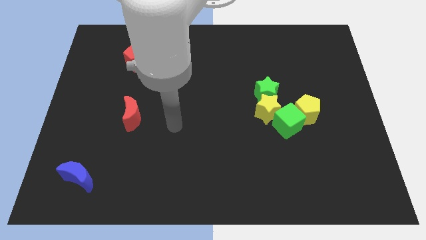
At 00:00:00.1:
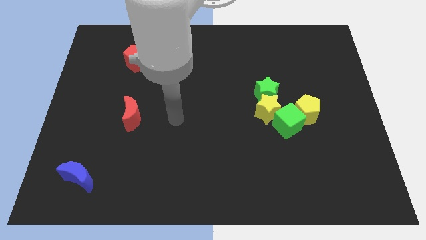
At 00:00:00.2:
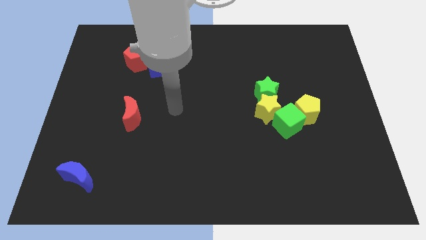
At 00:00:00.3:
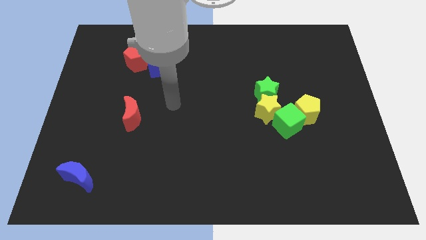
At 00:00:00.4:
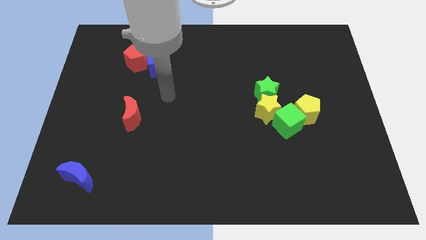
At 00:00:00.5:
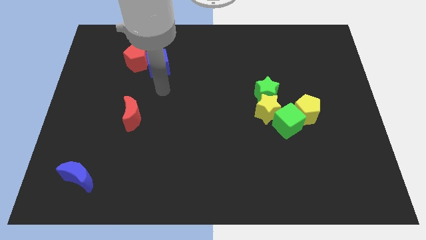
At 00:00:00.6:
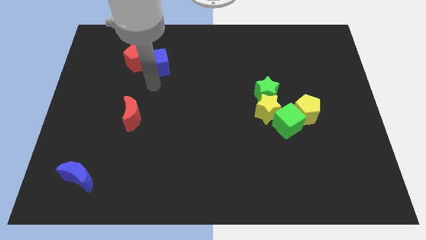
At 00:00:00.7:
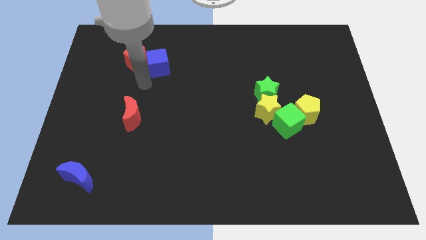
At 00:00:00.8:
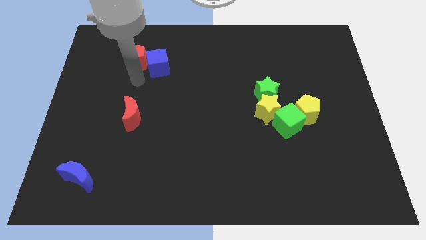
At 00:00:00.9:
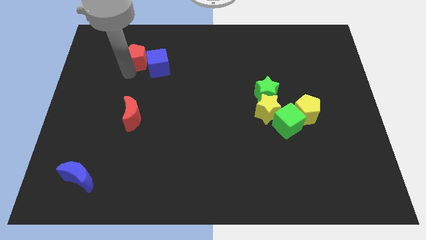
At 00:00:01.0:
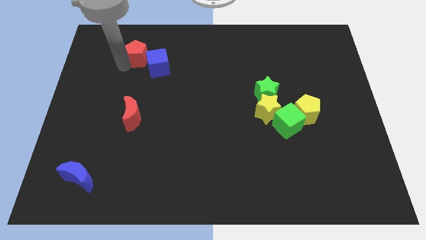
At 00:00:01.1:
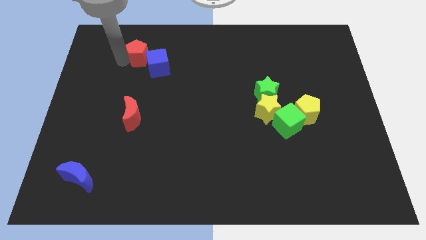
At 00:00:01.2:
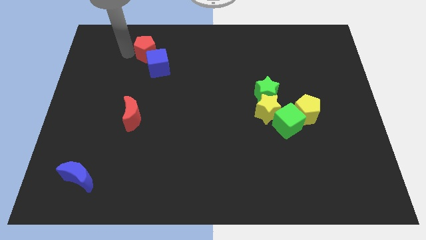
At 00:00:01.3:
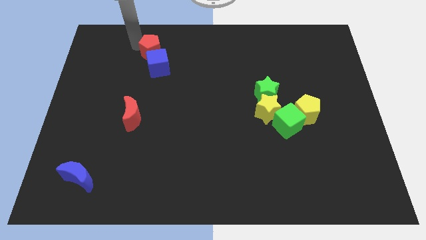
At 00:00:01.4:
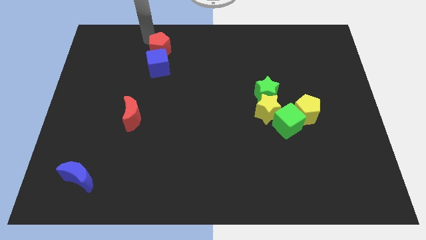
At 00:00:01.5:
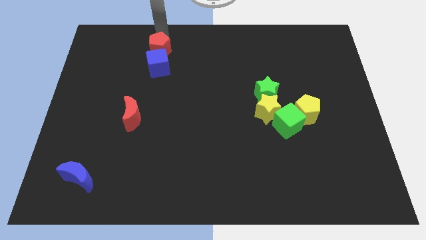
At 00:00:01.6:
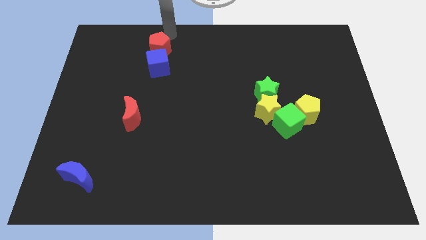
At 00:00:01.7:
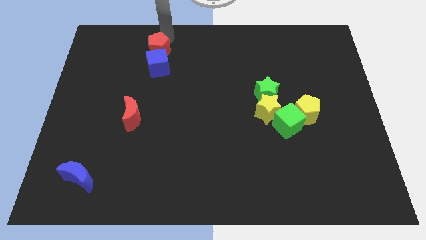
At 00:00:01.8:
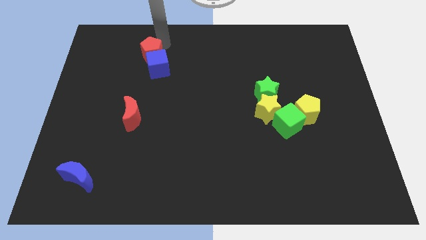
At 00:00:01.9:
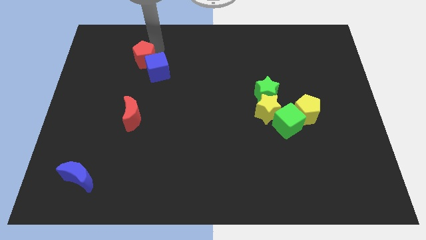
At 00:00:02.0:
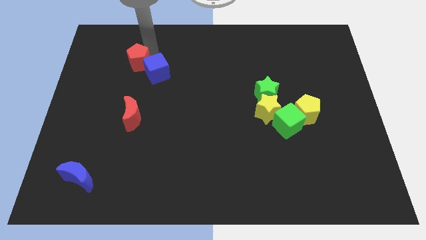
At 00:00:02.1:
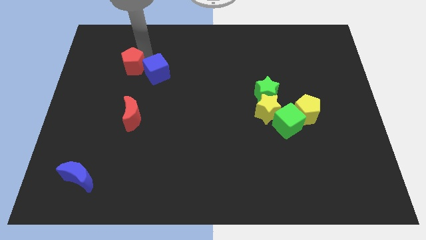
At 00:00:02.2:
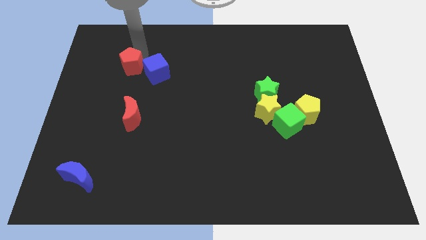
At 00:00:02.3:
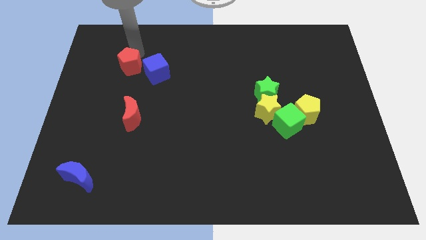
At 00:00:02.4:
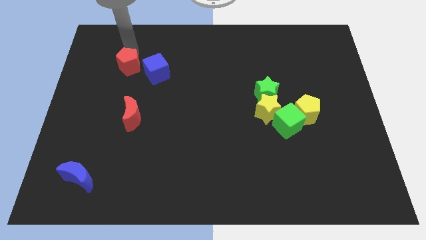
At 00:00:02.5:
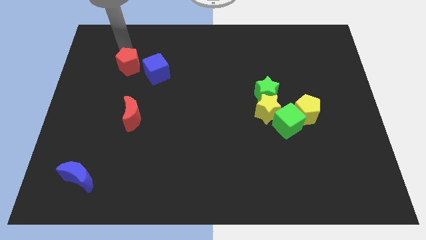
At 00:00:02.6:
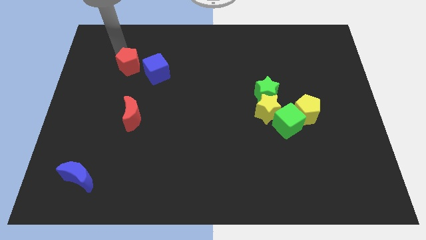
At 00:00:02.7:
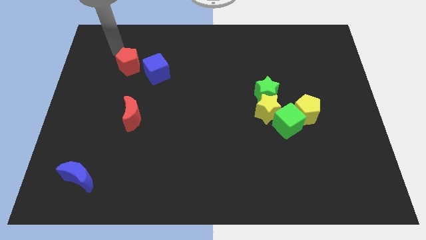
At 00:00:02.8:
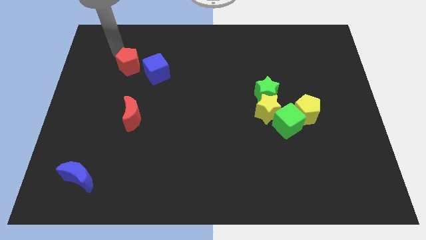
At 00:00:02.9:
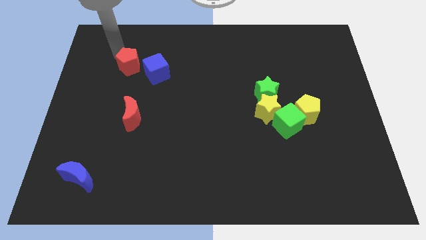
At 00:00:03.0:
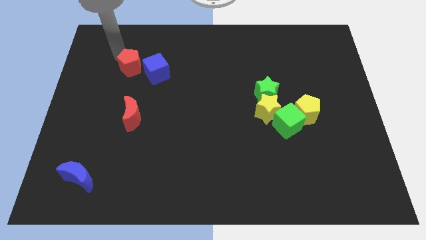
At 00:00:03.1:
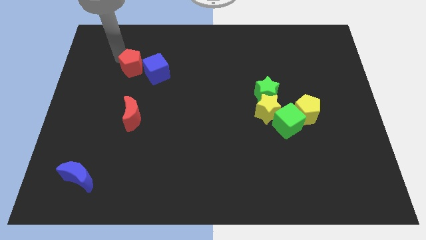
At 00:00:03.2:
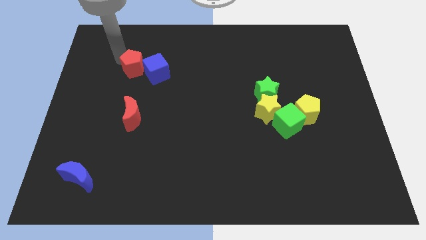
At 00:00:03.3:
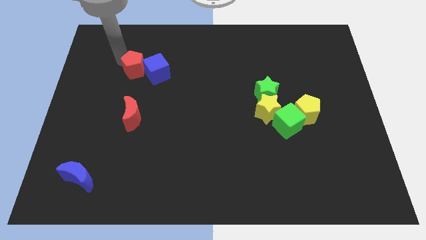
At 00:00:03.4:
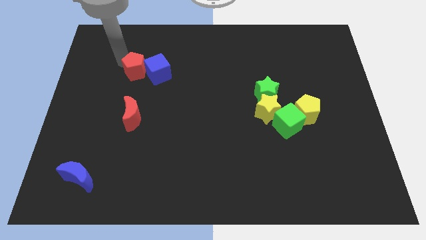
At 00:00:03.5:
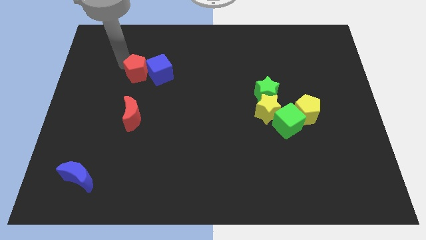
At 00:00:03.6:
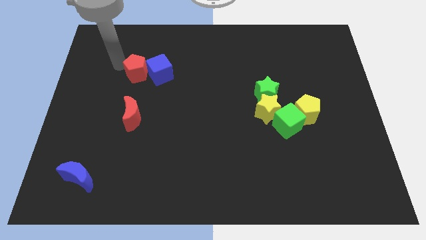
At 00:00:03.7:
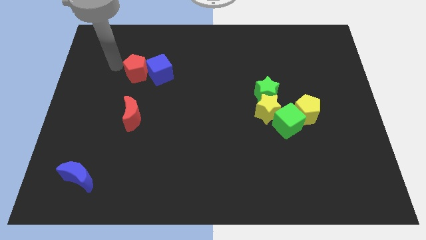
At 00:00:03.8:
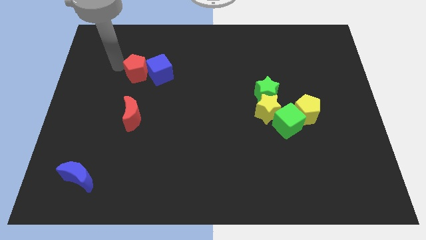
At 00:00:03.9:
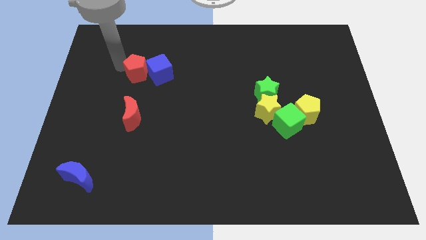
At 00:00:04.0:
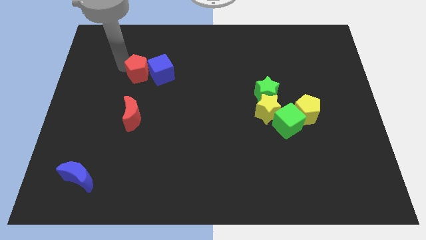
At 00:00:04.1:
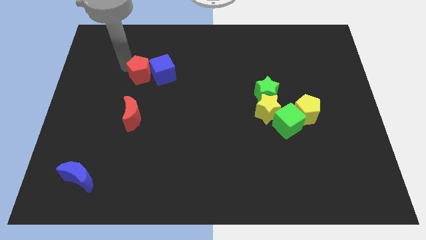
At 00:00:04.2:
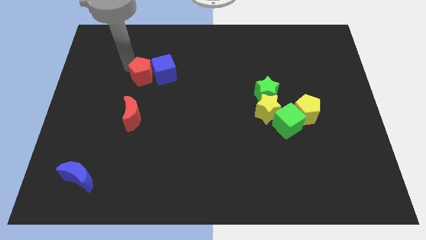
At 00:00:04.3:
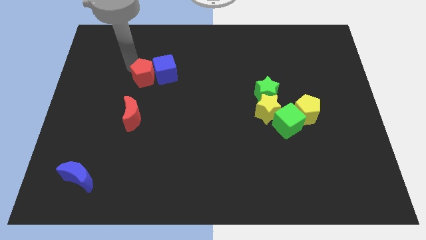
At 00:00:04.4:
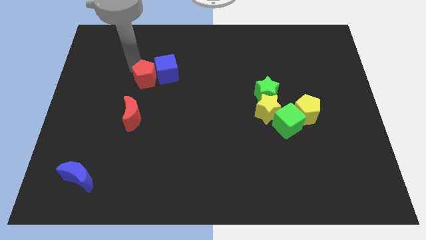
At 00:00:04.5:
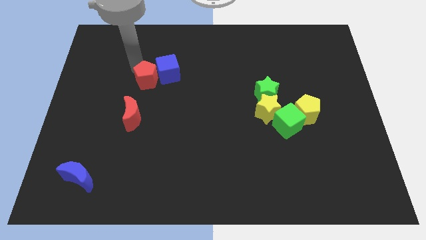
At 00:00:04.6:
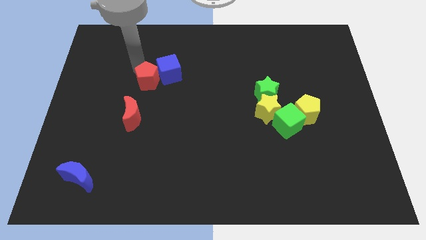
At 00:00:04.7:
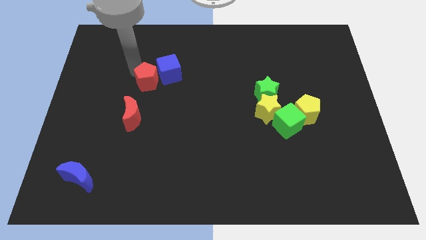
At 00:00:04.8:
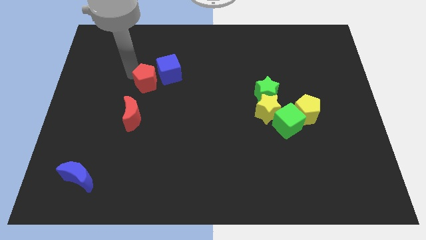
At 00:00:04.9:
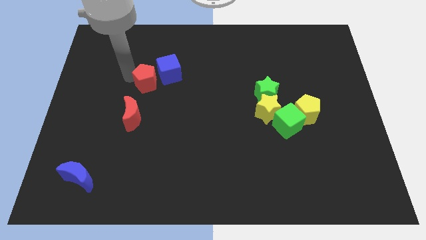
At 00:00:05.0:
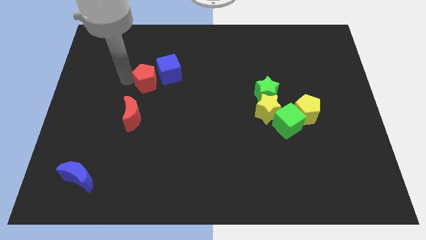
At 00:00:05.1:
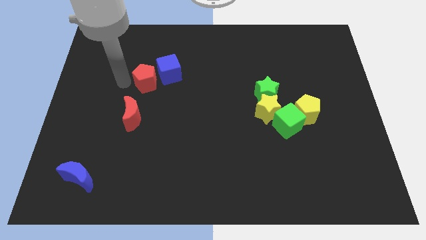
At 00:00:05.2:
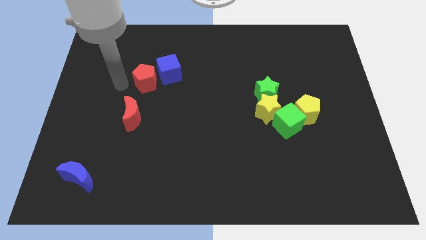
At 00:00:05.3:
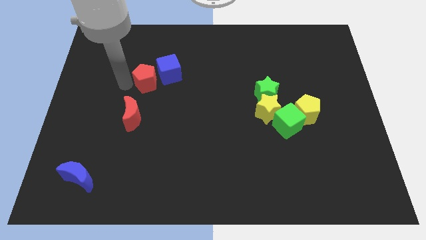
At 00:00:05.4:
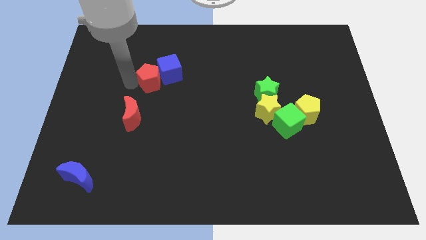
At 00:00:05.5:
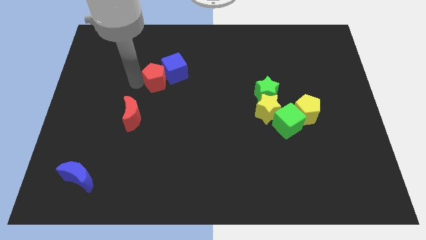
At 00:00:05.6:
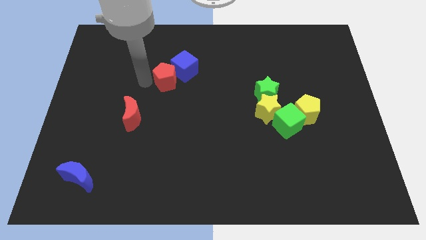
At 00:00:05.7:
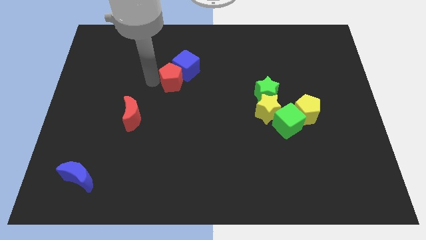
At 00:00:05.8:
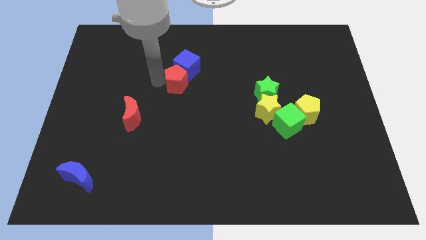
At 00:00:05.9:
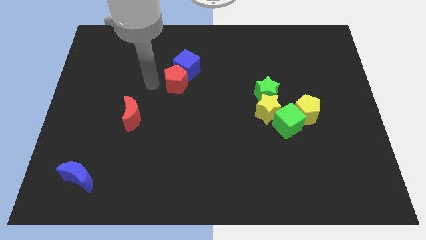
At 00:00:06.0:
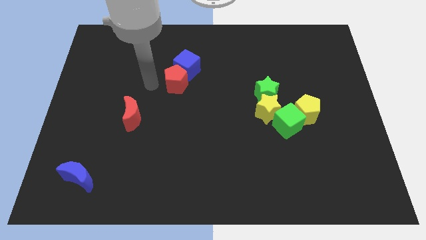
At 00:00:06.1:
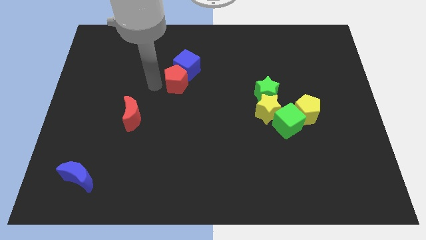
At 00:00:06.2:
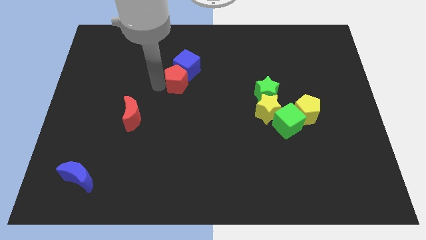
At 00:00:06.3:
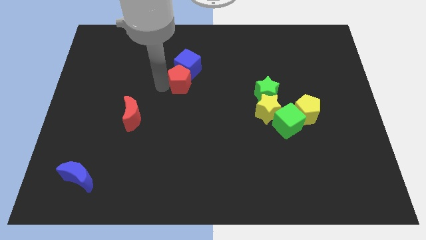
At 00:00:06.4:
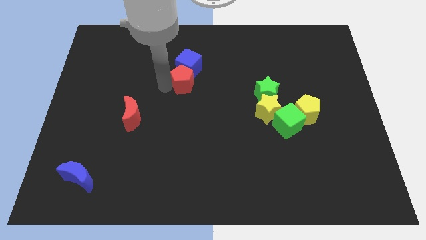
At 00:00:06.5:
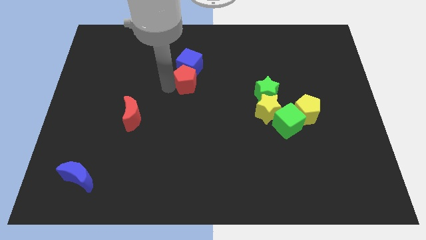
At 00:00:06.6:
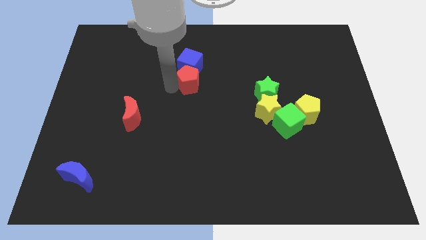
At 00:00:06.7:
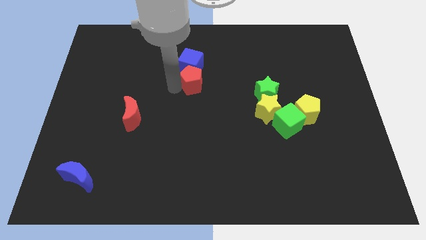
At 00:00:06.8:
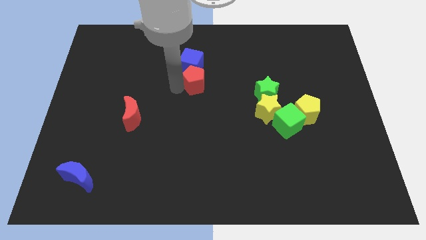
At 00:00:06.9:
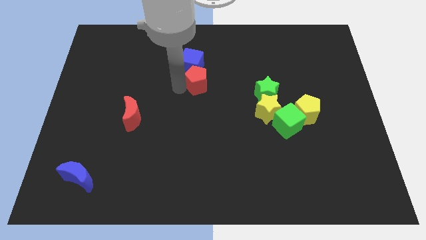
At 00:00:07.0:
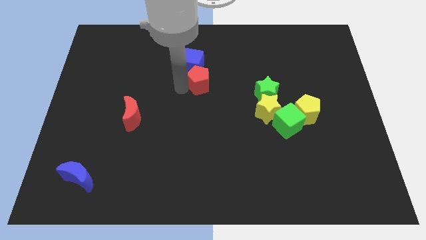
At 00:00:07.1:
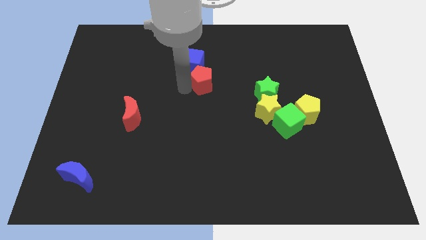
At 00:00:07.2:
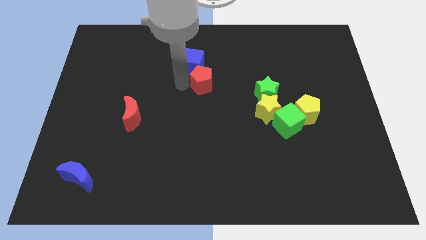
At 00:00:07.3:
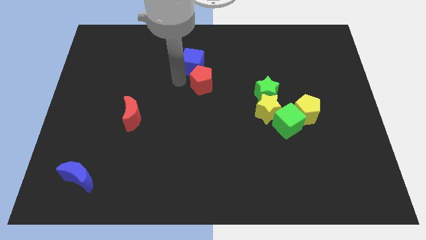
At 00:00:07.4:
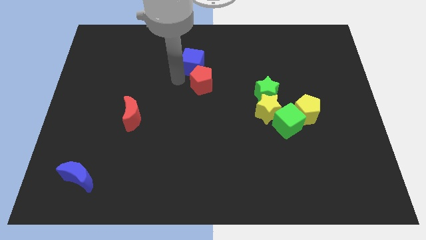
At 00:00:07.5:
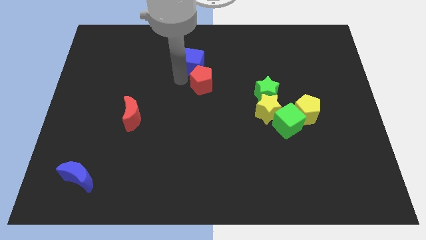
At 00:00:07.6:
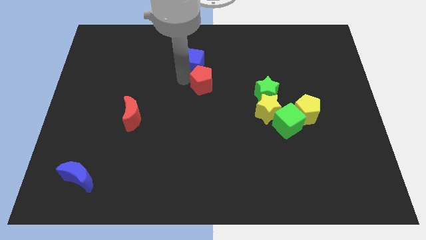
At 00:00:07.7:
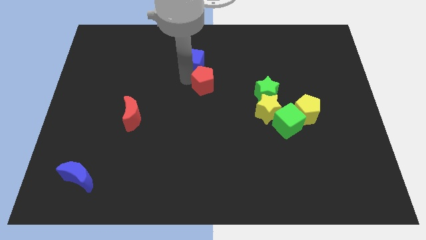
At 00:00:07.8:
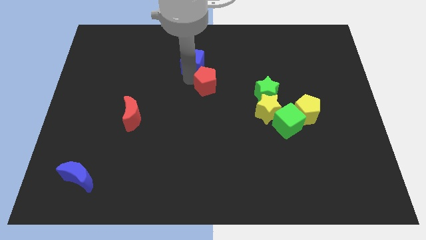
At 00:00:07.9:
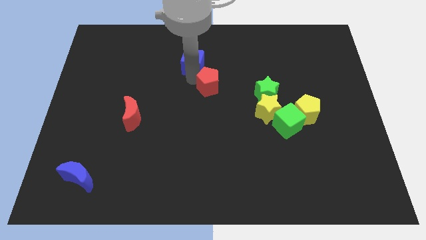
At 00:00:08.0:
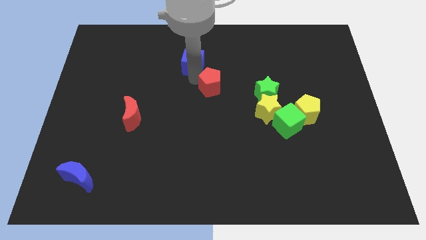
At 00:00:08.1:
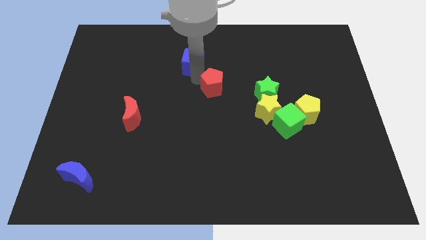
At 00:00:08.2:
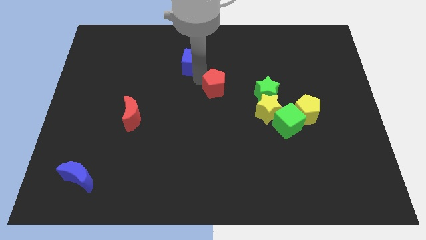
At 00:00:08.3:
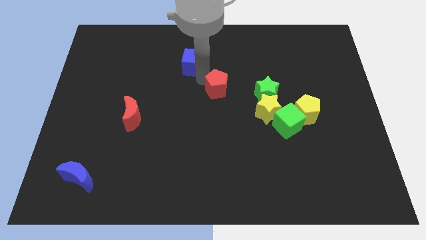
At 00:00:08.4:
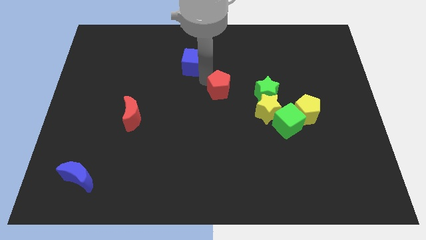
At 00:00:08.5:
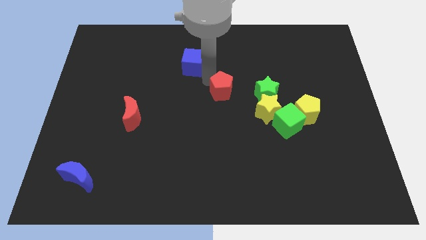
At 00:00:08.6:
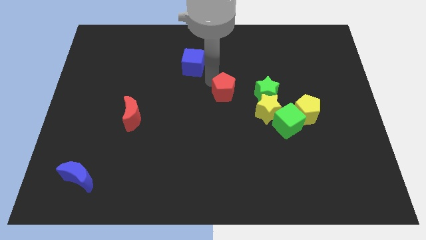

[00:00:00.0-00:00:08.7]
put the red pentagon to the top left of the yellow star
